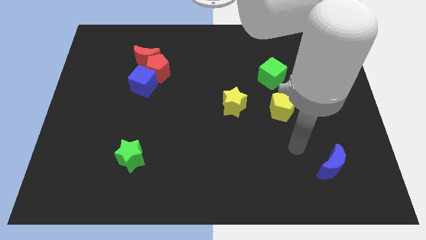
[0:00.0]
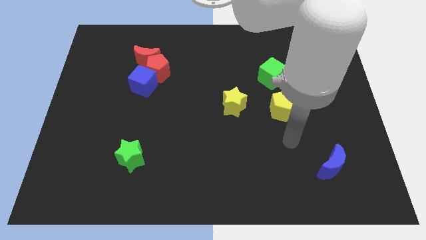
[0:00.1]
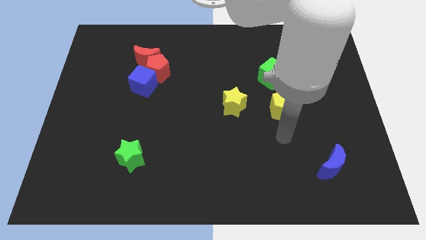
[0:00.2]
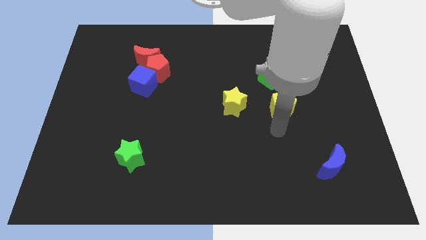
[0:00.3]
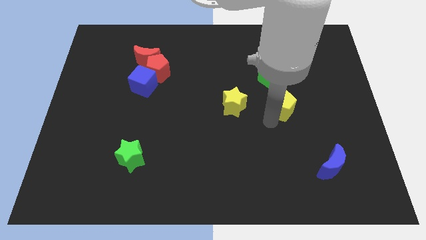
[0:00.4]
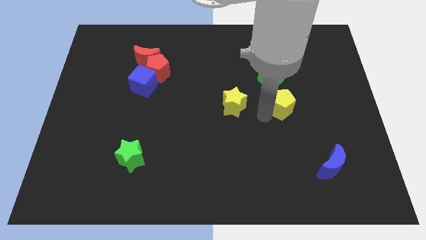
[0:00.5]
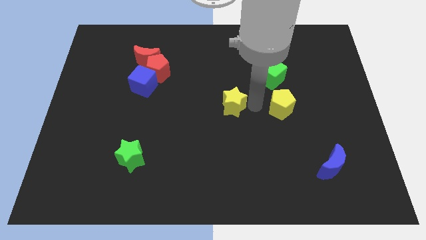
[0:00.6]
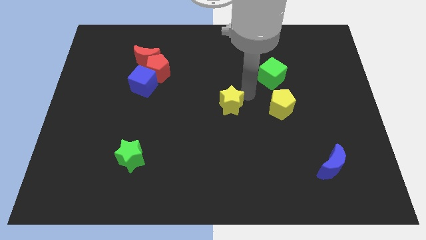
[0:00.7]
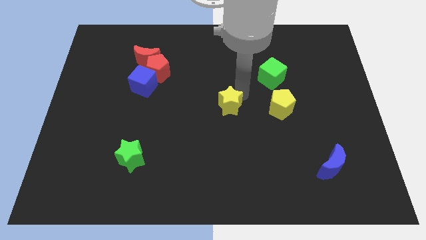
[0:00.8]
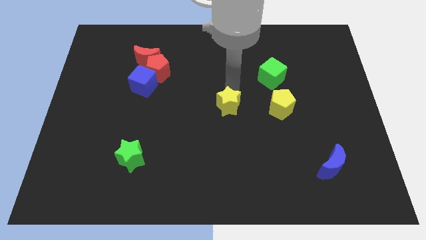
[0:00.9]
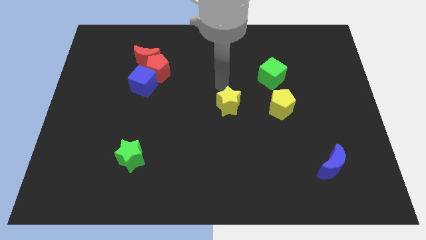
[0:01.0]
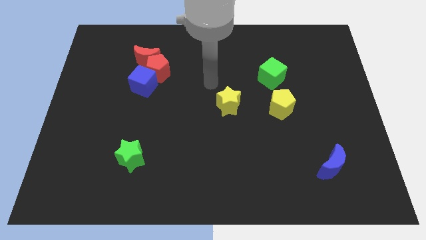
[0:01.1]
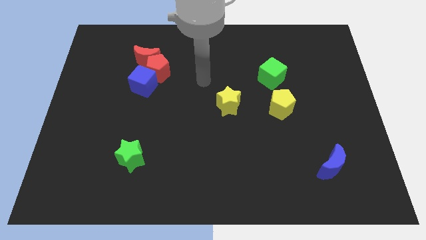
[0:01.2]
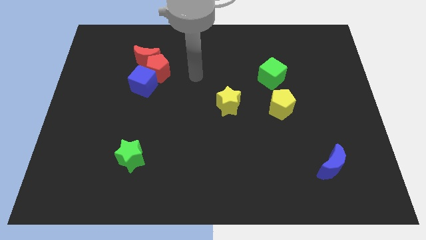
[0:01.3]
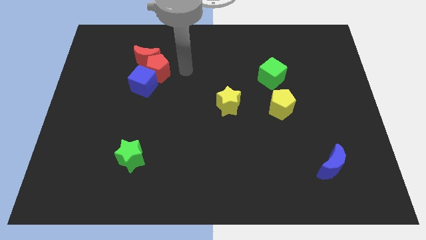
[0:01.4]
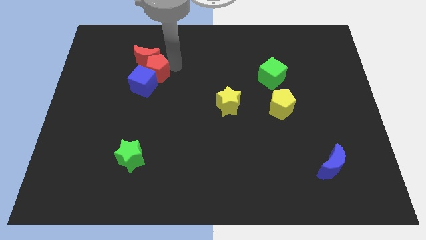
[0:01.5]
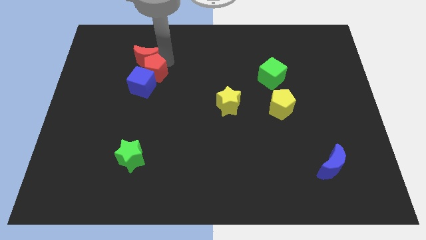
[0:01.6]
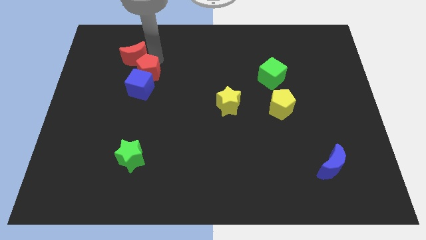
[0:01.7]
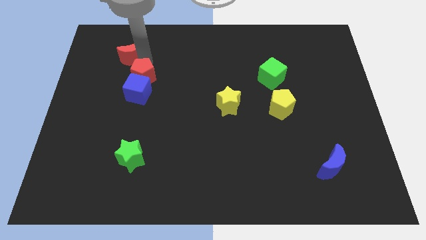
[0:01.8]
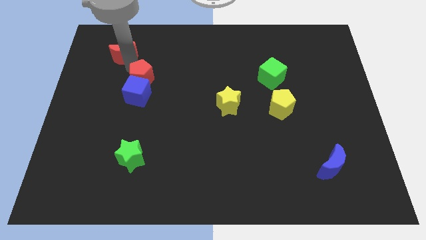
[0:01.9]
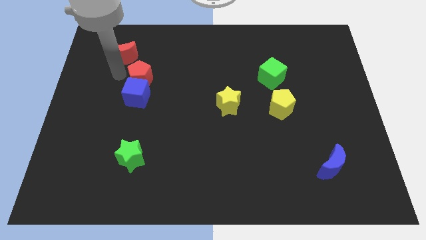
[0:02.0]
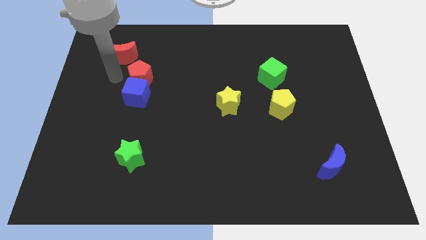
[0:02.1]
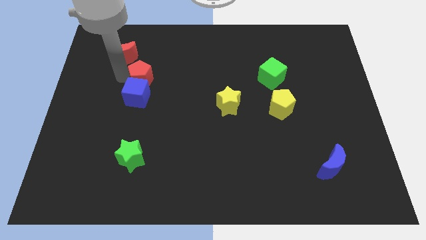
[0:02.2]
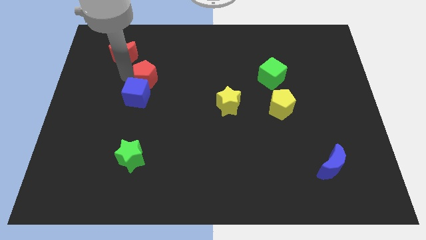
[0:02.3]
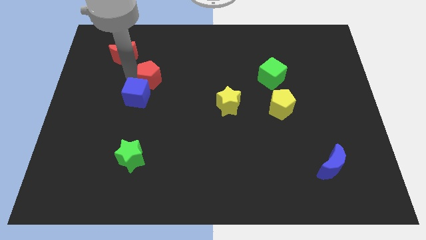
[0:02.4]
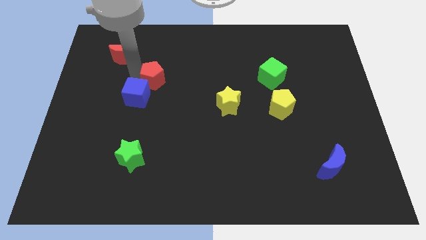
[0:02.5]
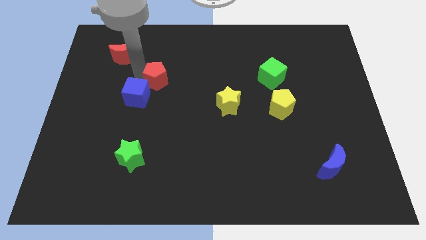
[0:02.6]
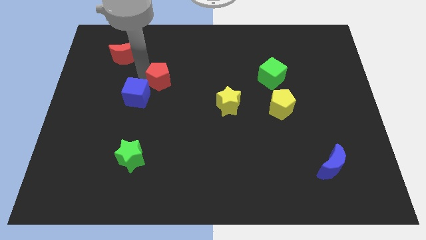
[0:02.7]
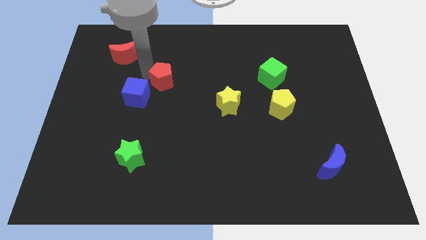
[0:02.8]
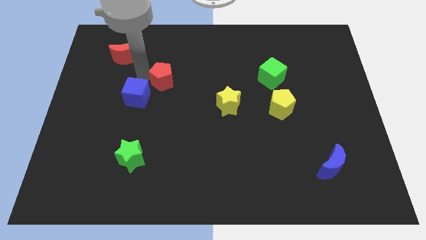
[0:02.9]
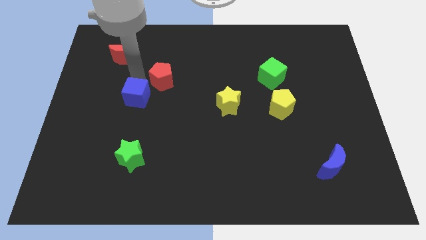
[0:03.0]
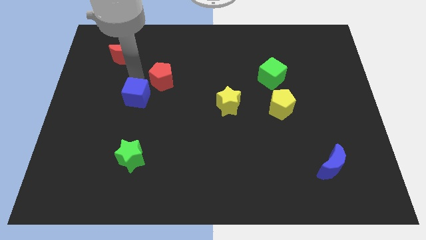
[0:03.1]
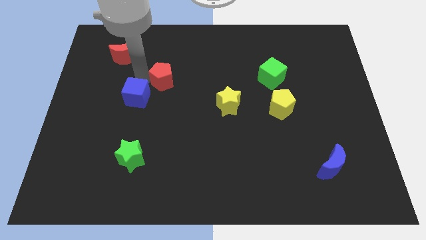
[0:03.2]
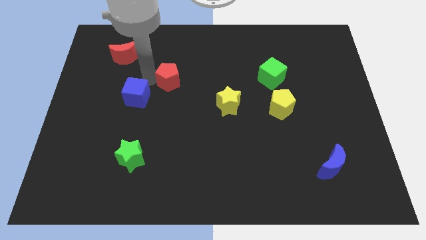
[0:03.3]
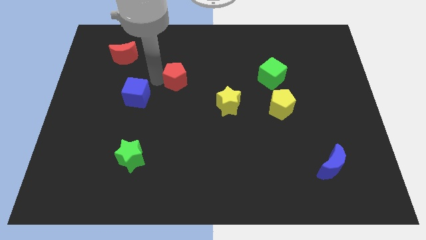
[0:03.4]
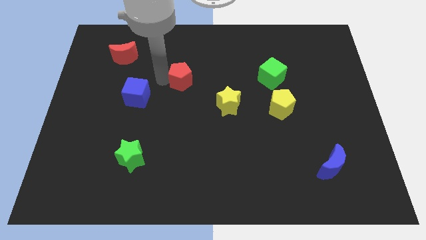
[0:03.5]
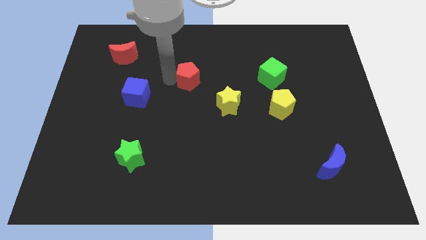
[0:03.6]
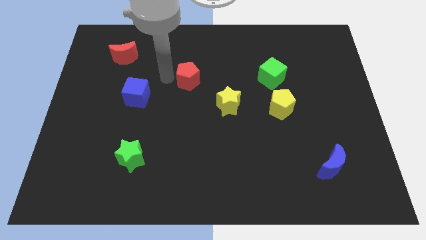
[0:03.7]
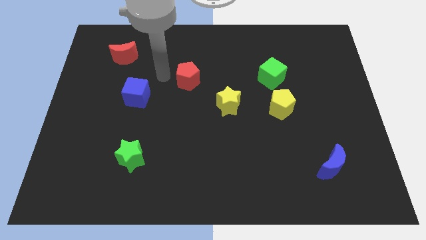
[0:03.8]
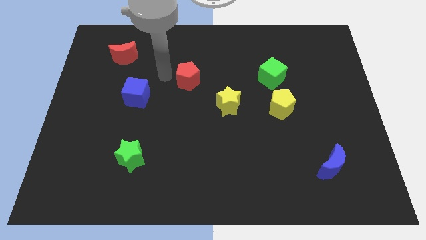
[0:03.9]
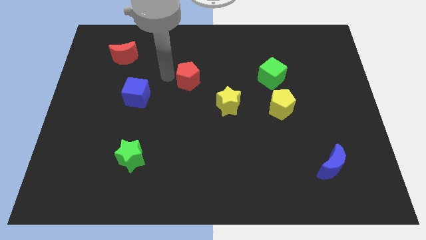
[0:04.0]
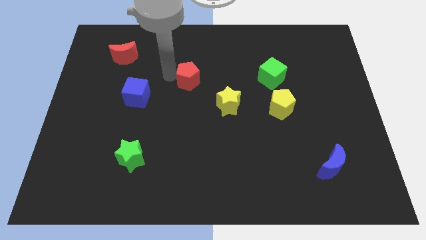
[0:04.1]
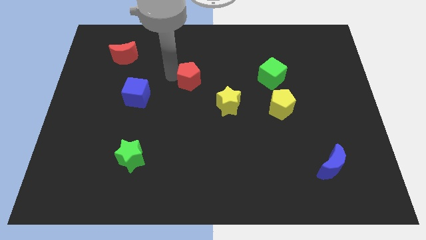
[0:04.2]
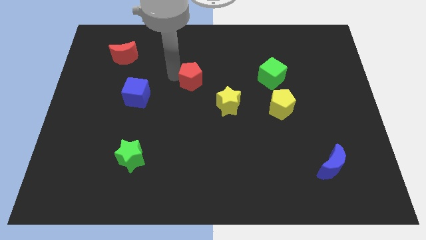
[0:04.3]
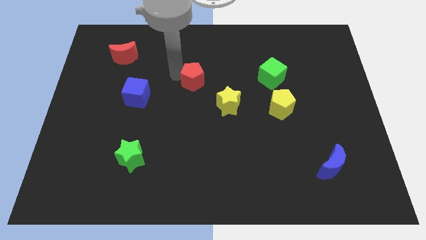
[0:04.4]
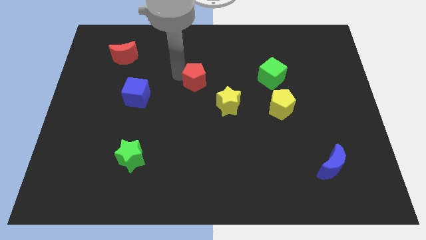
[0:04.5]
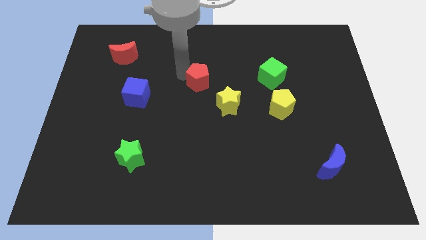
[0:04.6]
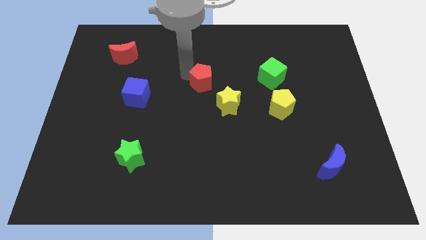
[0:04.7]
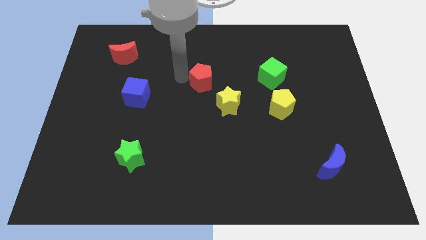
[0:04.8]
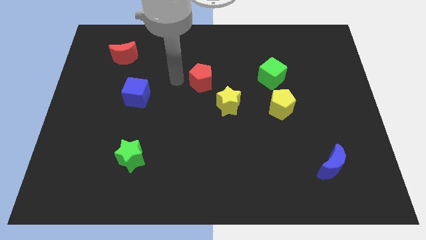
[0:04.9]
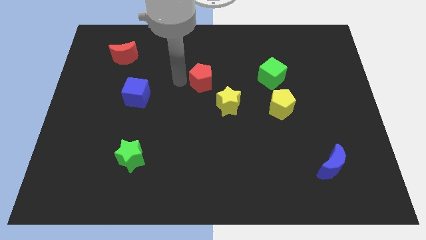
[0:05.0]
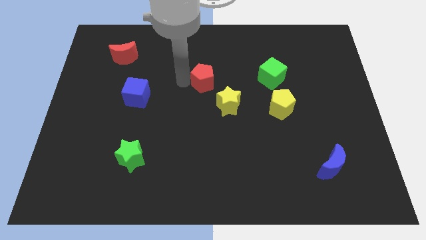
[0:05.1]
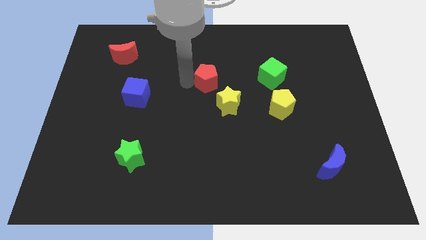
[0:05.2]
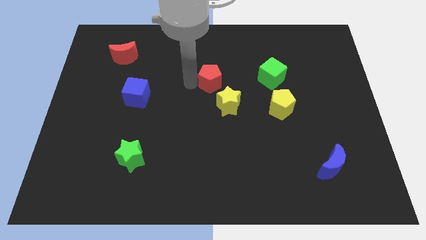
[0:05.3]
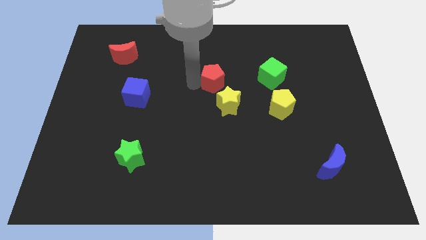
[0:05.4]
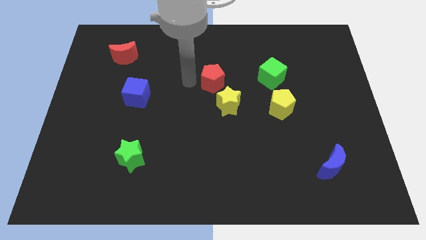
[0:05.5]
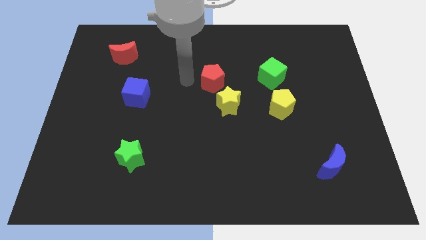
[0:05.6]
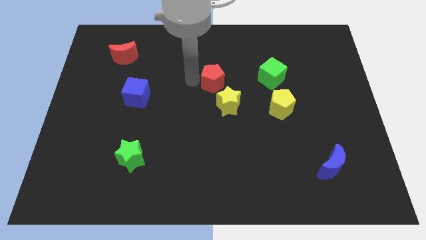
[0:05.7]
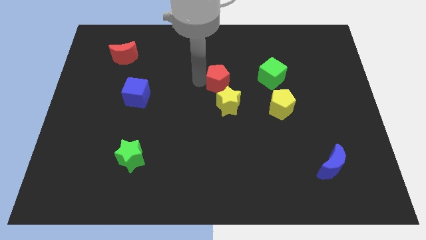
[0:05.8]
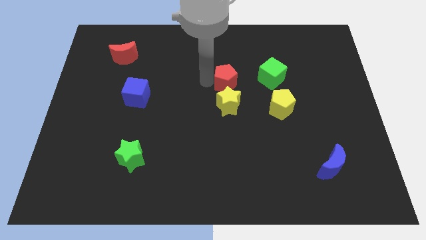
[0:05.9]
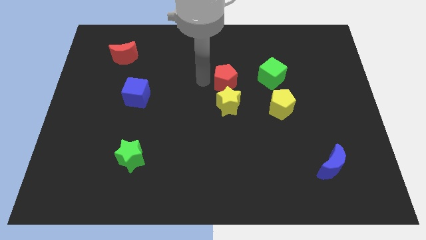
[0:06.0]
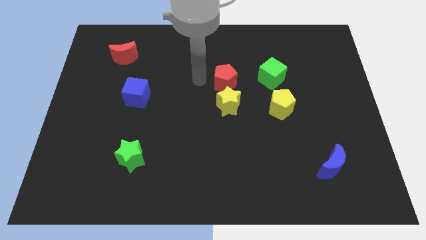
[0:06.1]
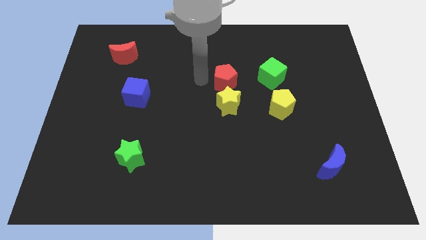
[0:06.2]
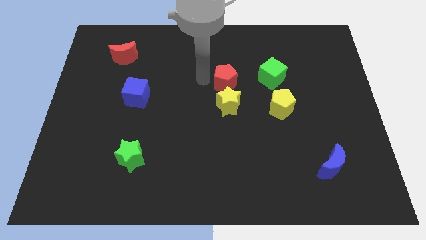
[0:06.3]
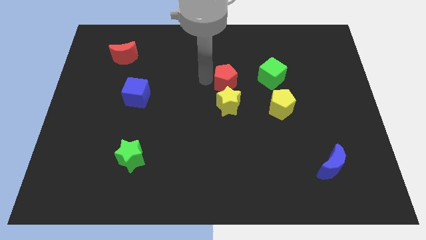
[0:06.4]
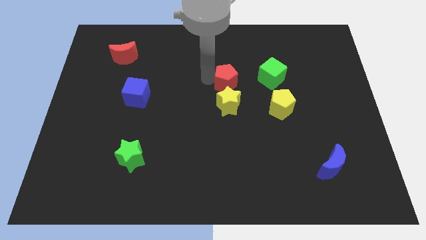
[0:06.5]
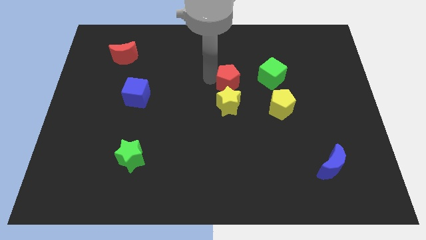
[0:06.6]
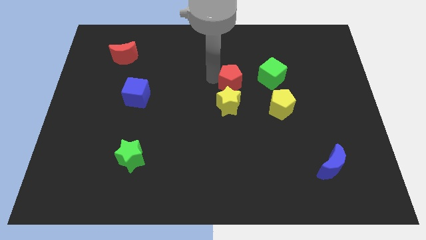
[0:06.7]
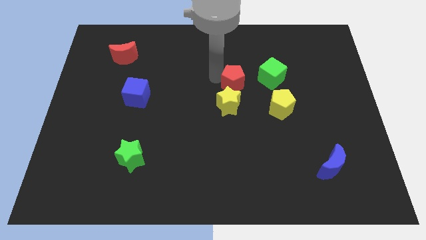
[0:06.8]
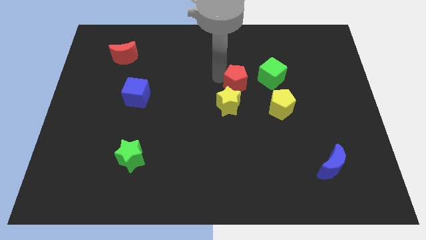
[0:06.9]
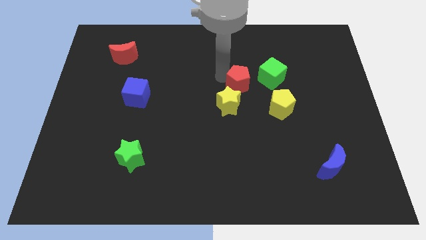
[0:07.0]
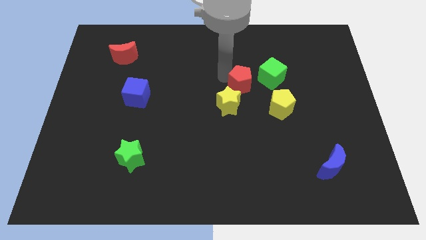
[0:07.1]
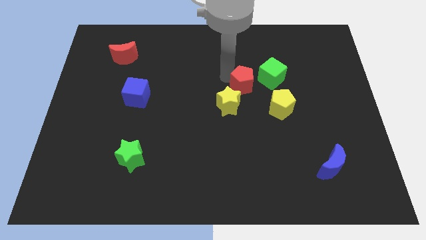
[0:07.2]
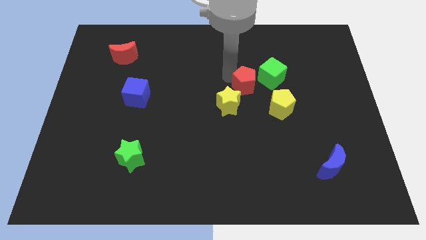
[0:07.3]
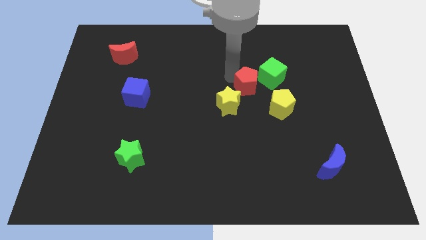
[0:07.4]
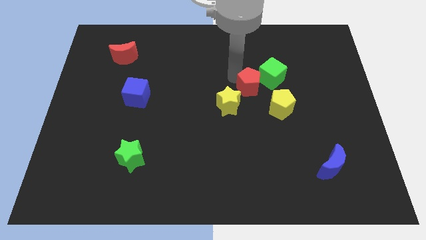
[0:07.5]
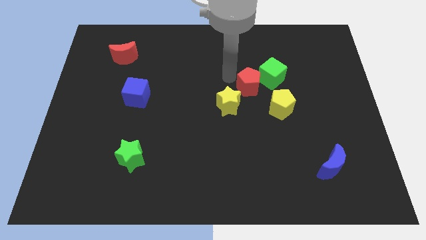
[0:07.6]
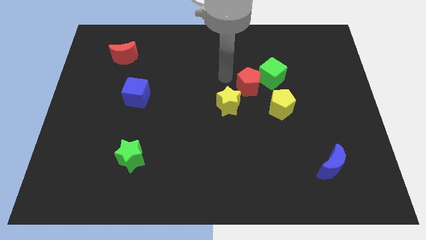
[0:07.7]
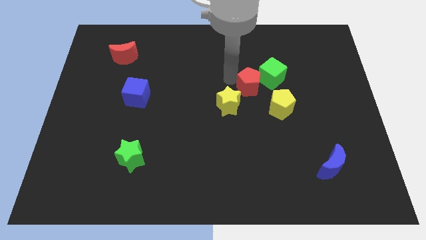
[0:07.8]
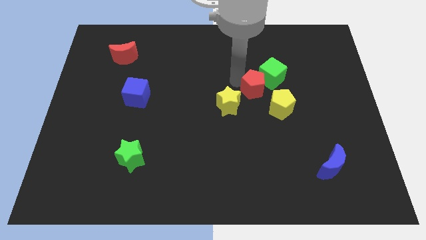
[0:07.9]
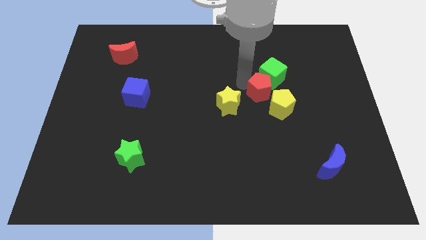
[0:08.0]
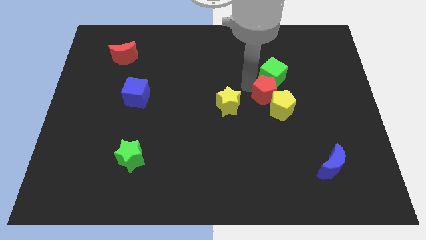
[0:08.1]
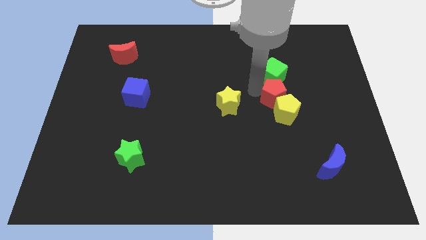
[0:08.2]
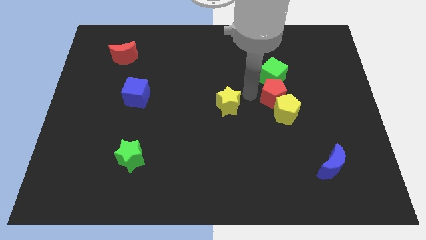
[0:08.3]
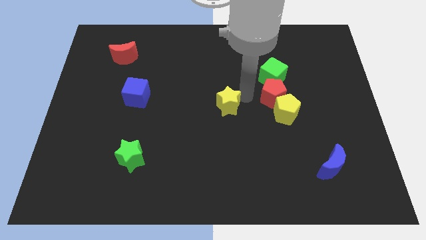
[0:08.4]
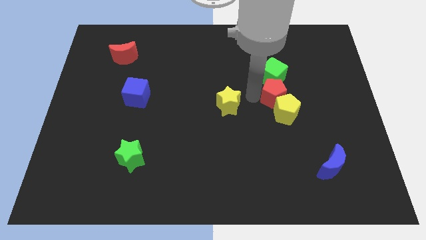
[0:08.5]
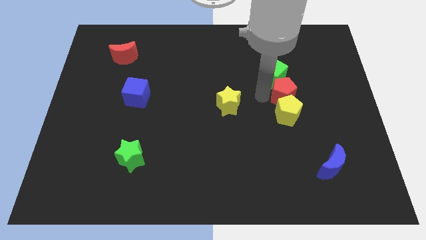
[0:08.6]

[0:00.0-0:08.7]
move the red pentagon to the top right of the yellow pentagon
